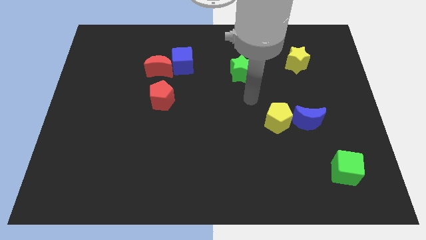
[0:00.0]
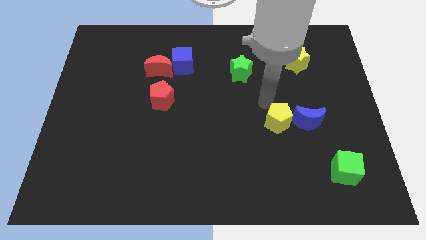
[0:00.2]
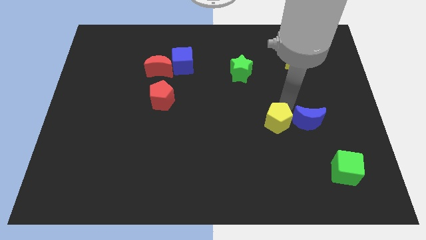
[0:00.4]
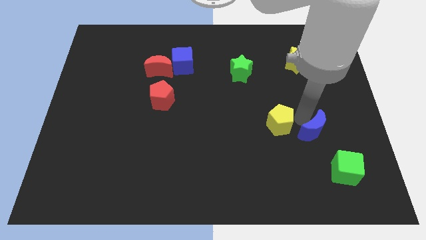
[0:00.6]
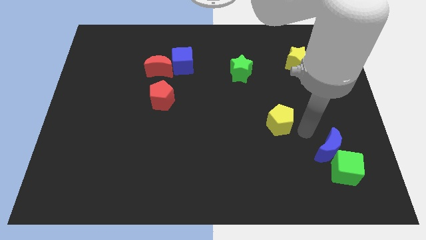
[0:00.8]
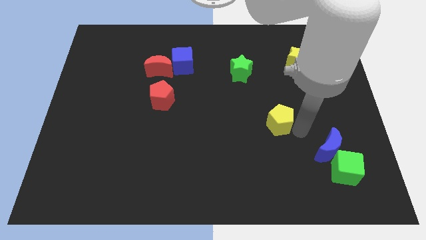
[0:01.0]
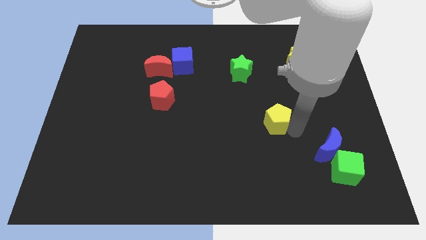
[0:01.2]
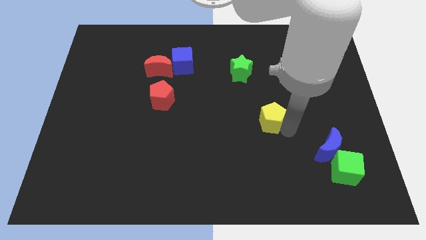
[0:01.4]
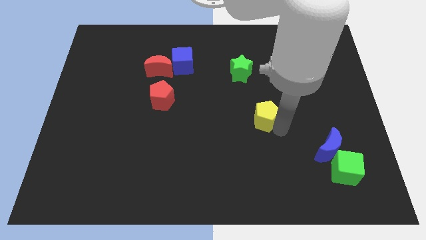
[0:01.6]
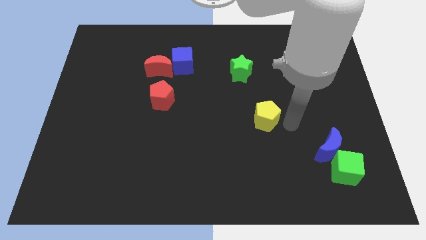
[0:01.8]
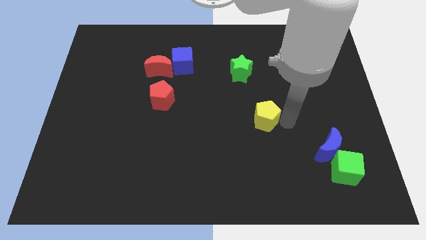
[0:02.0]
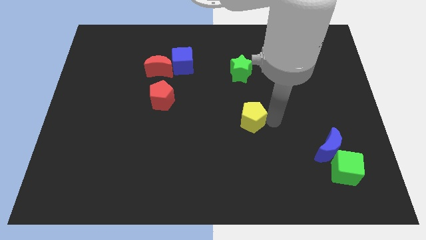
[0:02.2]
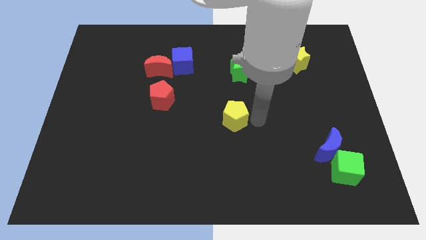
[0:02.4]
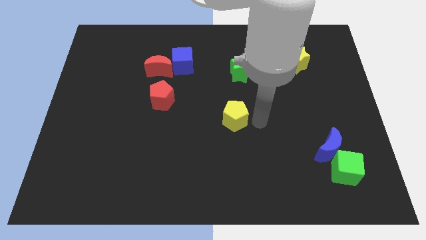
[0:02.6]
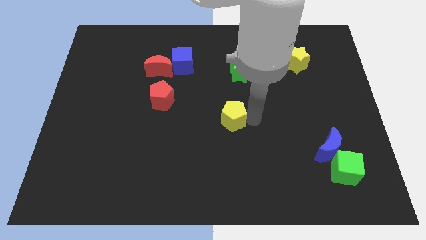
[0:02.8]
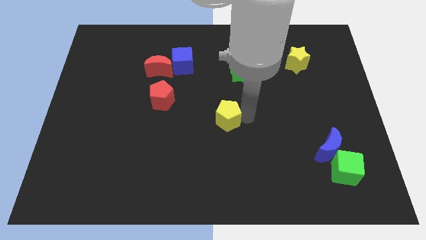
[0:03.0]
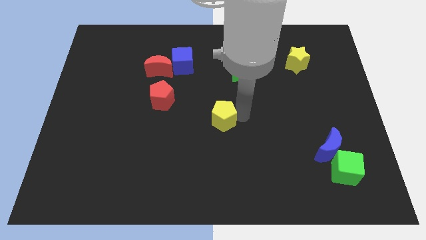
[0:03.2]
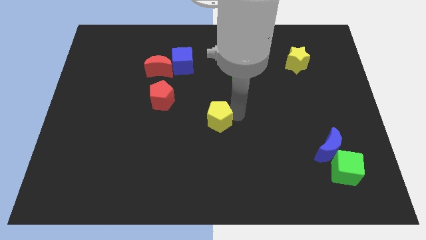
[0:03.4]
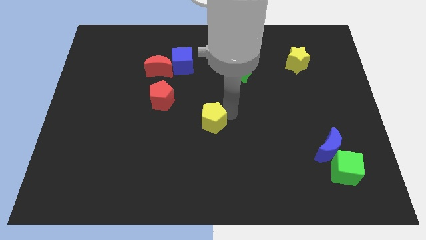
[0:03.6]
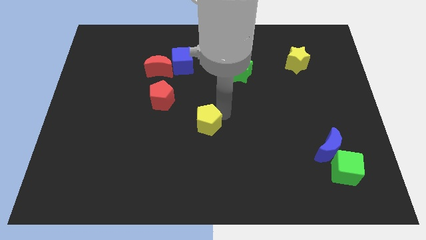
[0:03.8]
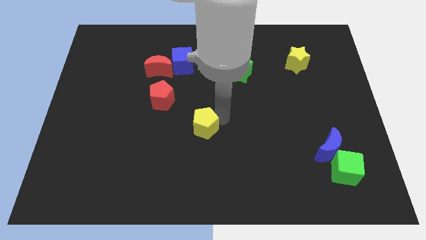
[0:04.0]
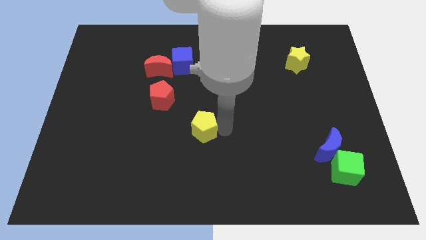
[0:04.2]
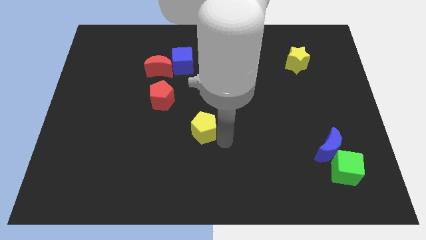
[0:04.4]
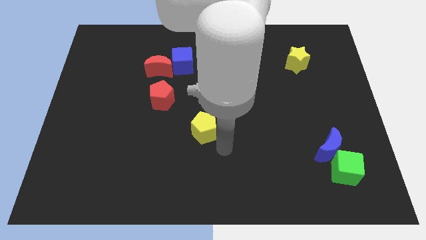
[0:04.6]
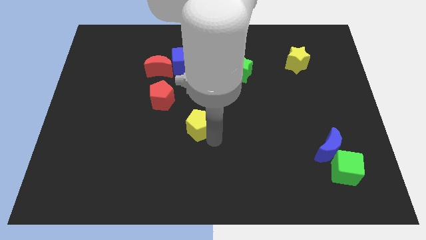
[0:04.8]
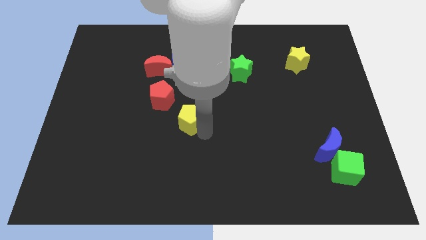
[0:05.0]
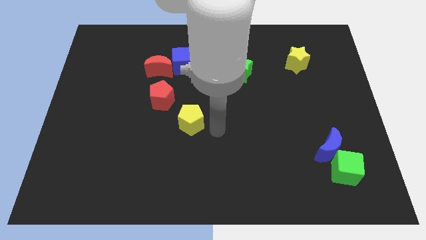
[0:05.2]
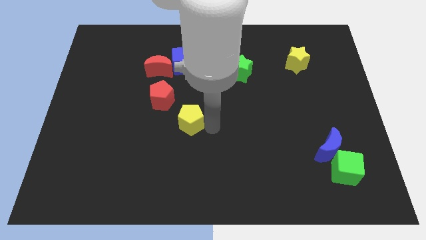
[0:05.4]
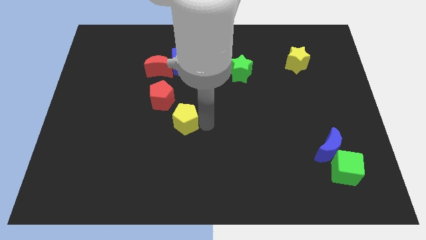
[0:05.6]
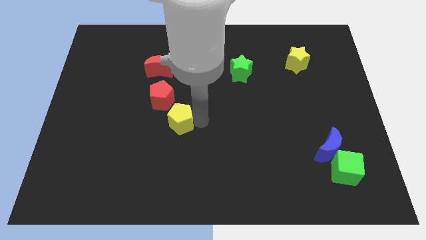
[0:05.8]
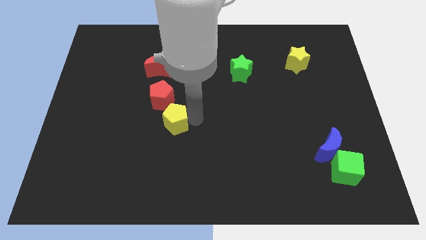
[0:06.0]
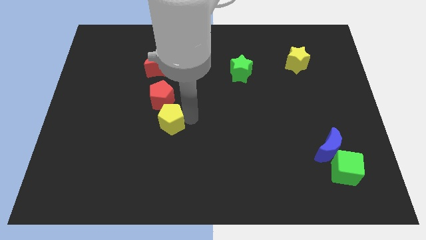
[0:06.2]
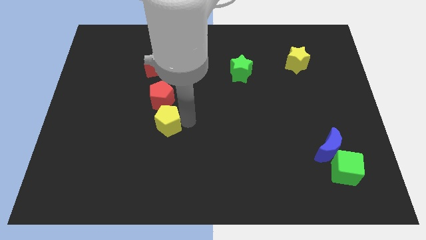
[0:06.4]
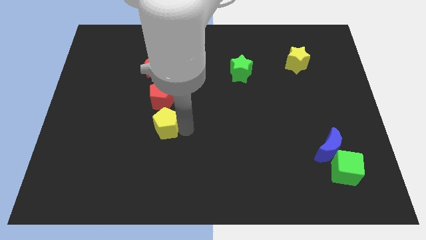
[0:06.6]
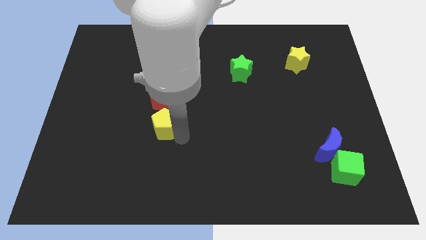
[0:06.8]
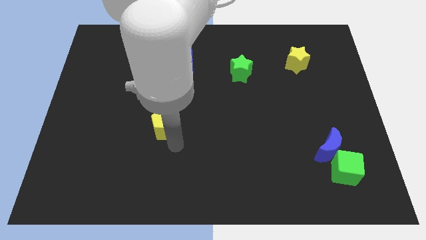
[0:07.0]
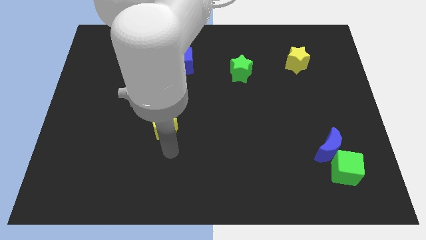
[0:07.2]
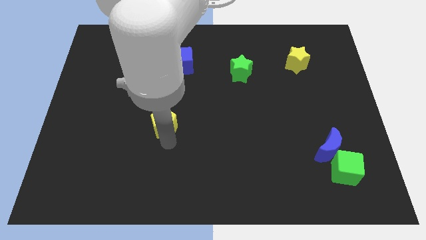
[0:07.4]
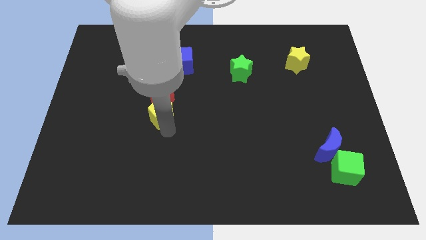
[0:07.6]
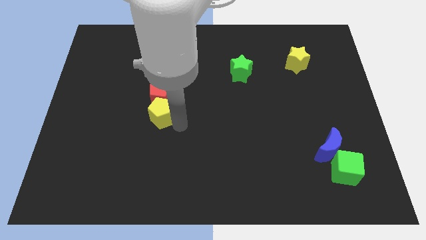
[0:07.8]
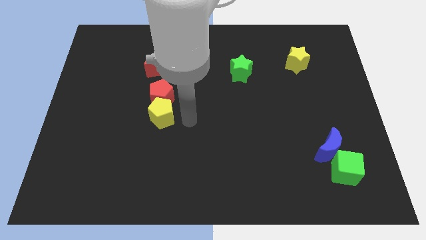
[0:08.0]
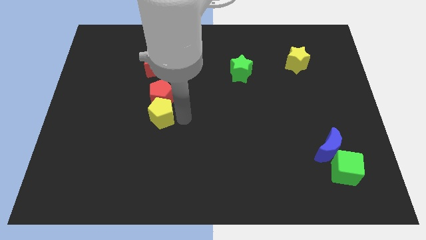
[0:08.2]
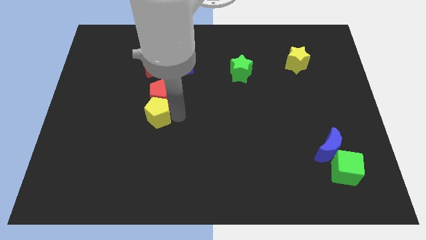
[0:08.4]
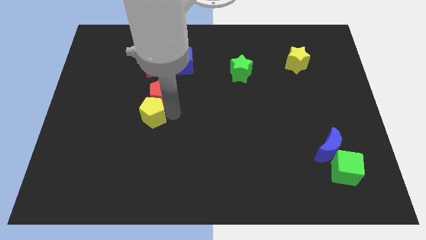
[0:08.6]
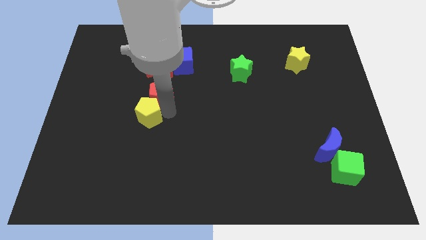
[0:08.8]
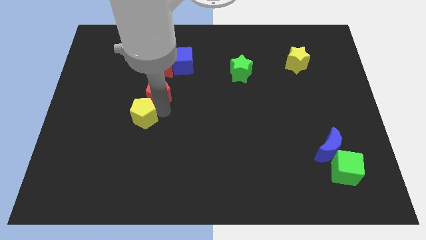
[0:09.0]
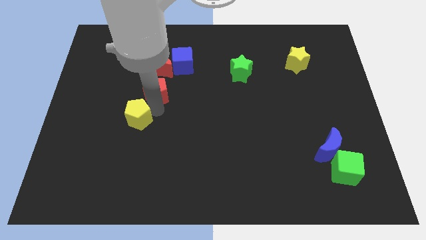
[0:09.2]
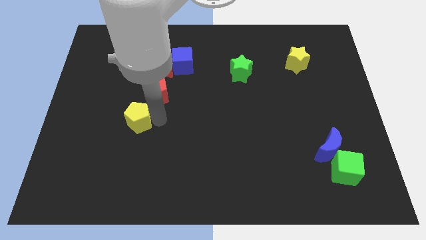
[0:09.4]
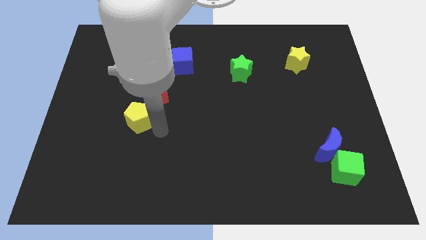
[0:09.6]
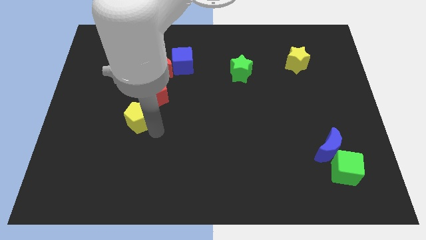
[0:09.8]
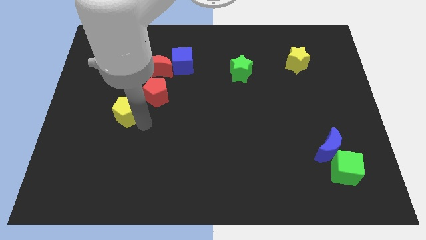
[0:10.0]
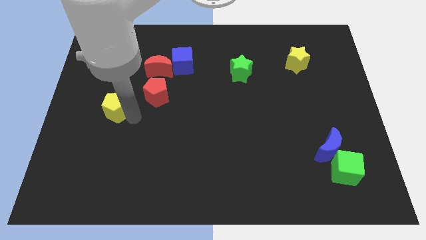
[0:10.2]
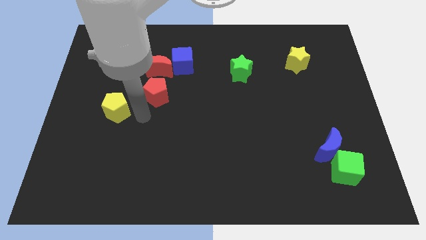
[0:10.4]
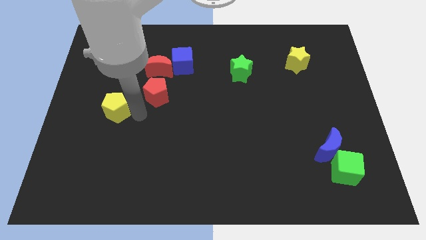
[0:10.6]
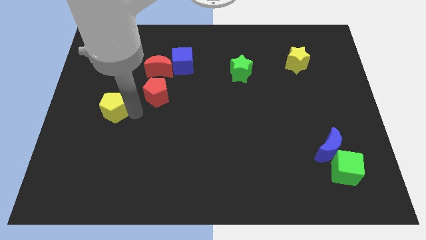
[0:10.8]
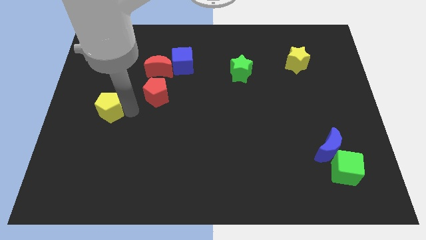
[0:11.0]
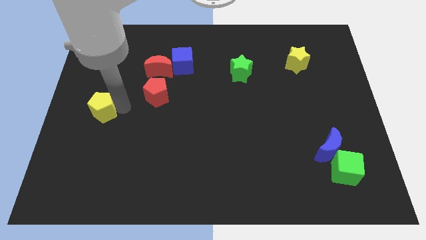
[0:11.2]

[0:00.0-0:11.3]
put the yellow pentagon to the center left

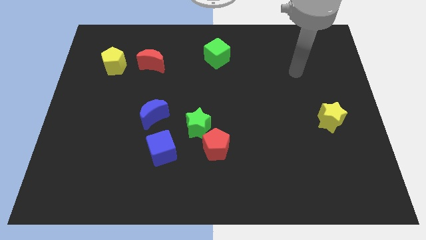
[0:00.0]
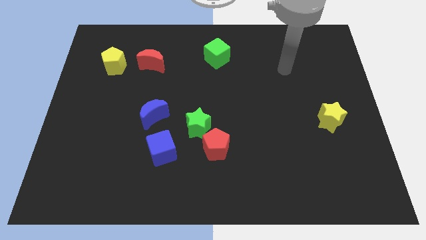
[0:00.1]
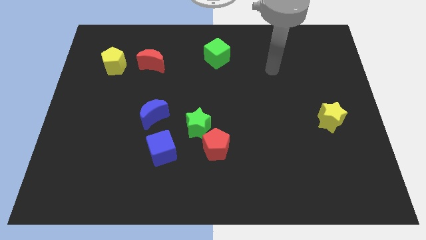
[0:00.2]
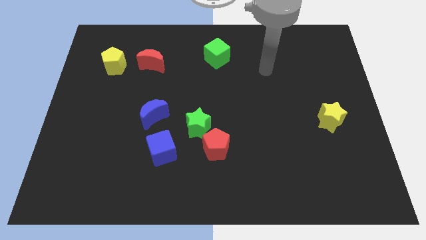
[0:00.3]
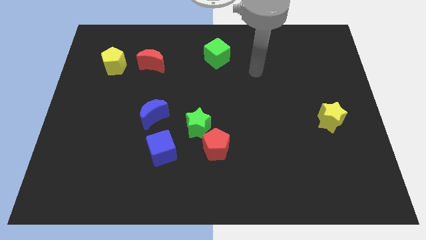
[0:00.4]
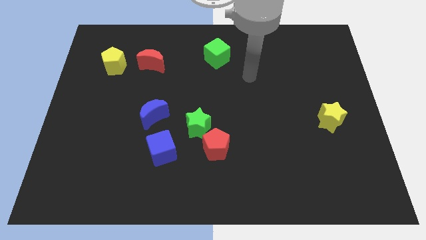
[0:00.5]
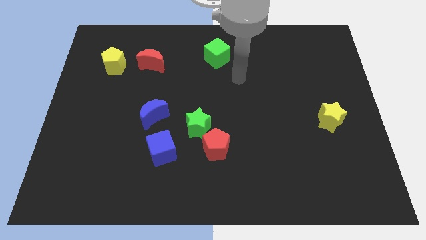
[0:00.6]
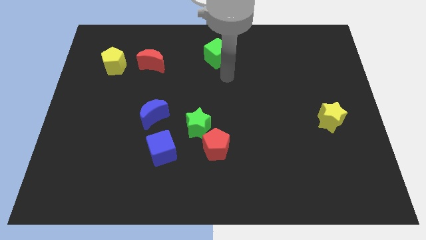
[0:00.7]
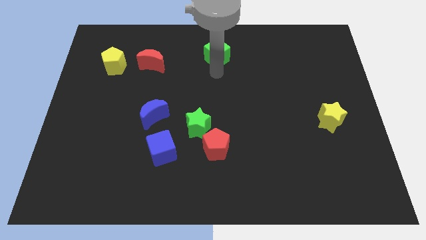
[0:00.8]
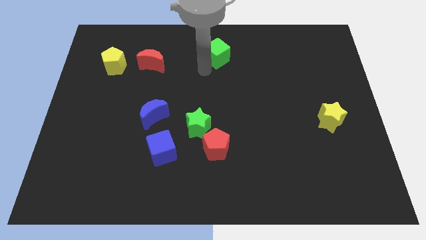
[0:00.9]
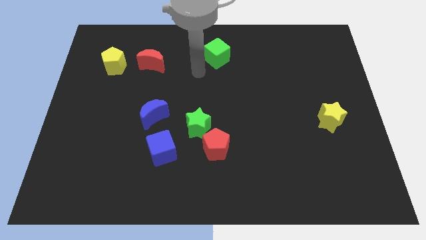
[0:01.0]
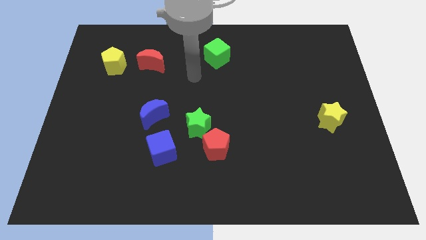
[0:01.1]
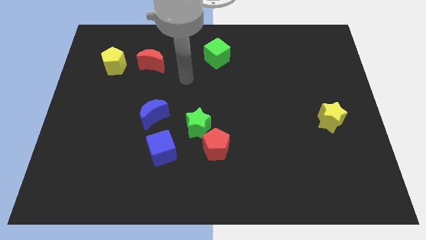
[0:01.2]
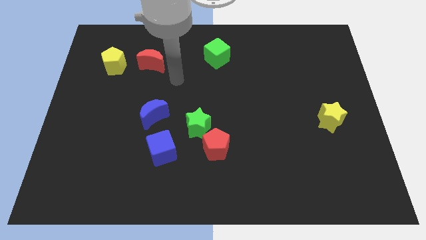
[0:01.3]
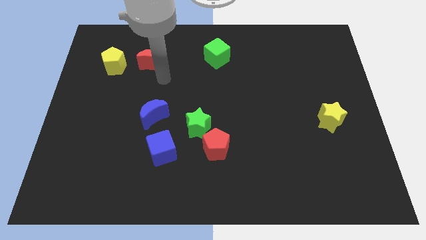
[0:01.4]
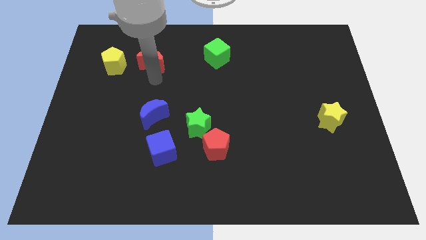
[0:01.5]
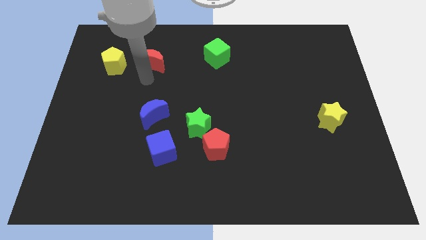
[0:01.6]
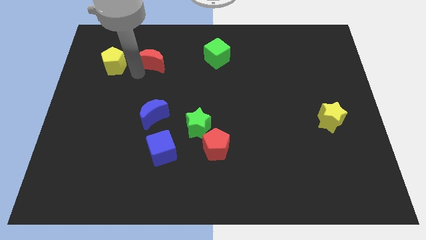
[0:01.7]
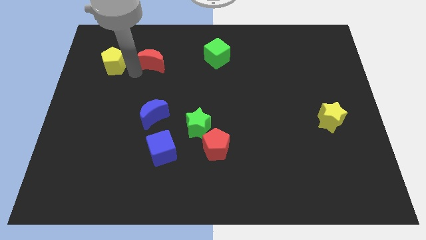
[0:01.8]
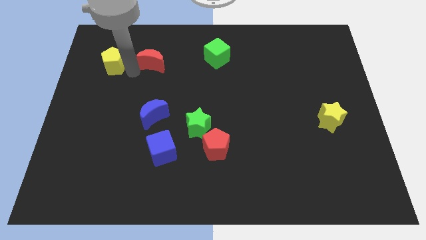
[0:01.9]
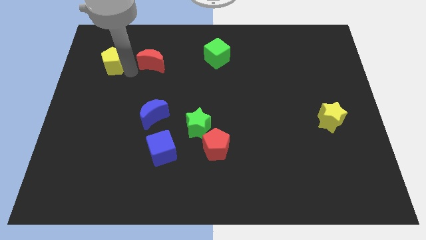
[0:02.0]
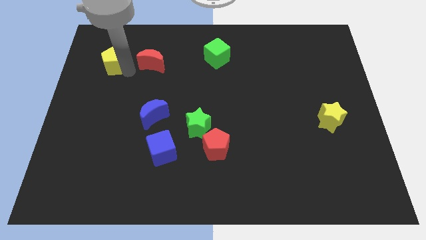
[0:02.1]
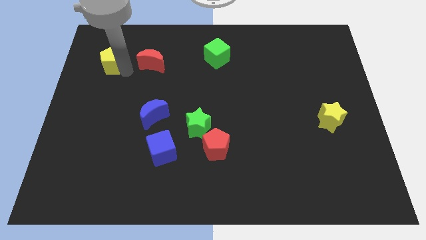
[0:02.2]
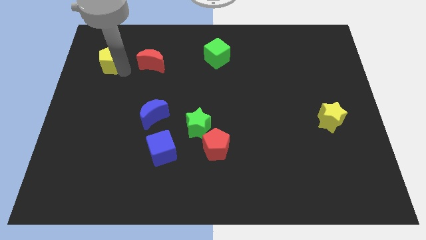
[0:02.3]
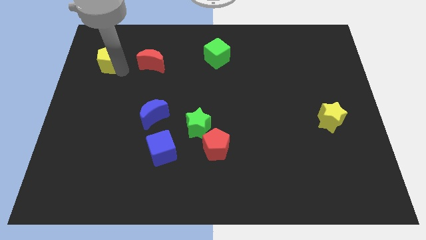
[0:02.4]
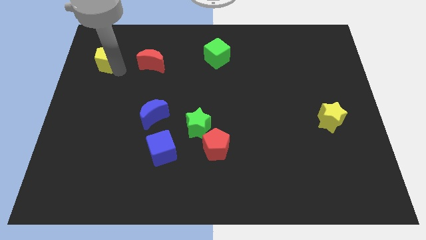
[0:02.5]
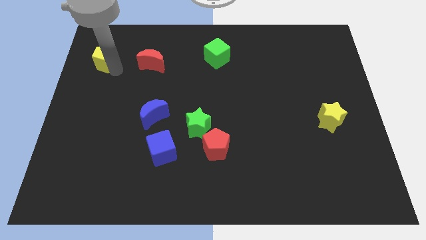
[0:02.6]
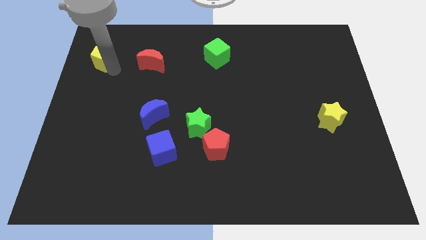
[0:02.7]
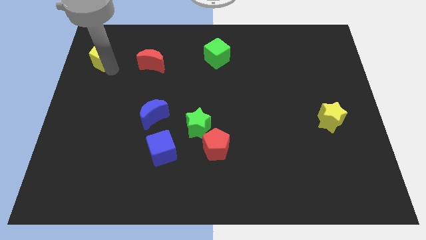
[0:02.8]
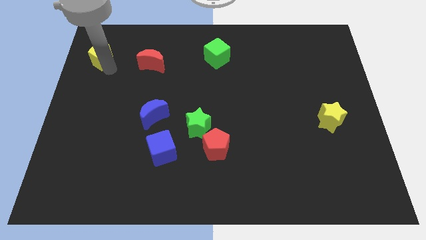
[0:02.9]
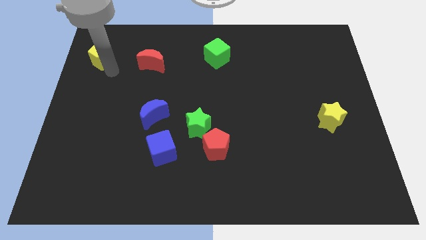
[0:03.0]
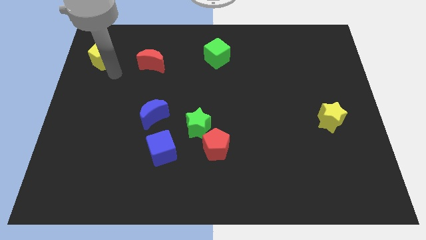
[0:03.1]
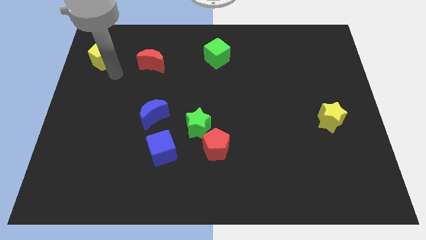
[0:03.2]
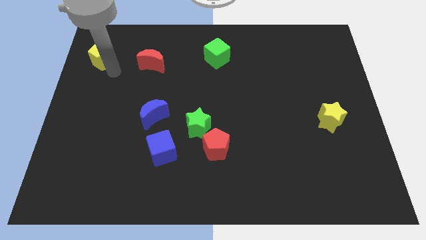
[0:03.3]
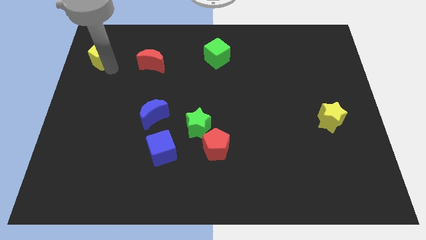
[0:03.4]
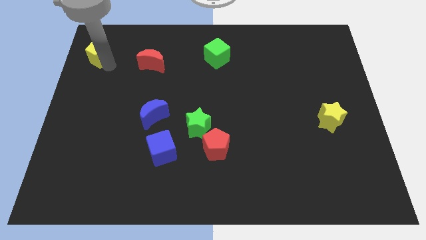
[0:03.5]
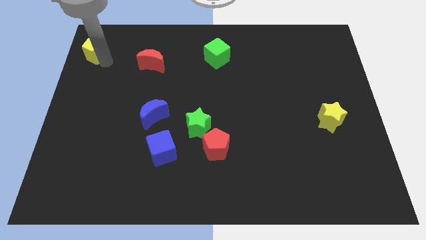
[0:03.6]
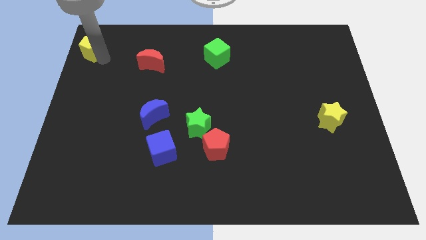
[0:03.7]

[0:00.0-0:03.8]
push the yellow pentagon to the top left corner
